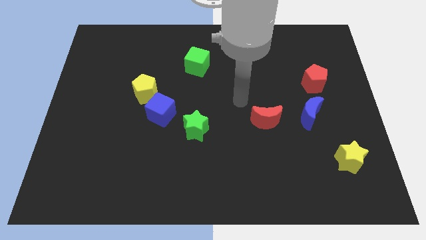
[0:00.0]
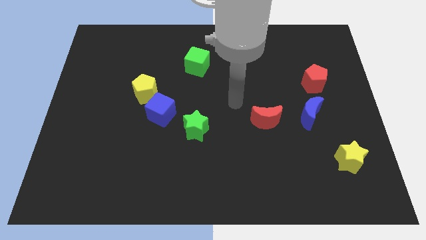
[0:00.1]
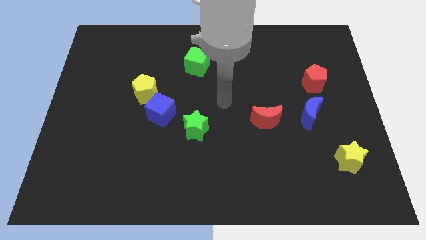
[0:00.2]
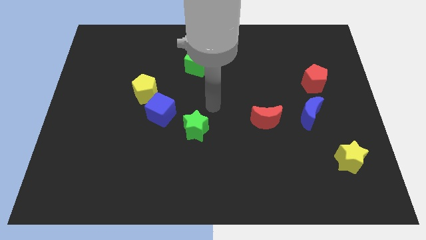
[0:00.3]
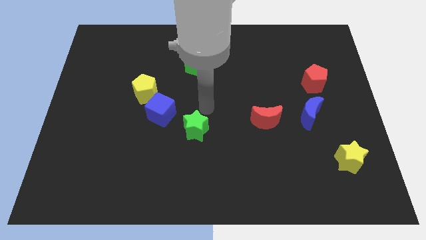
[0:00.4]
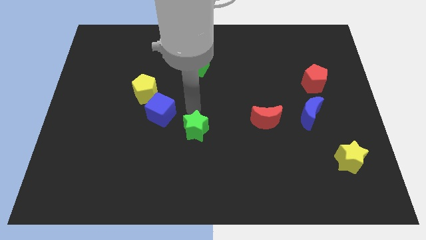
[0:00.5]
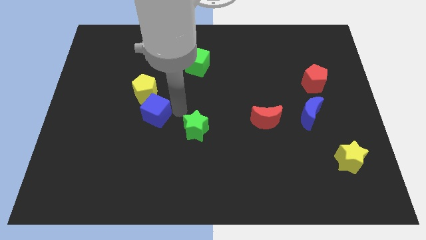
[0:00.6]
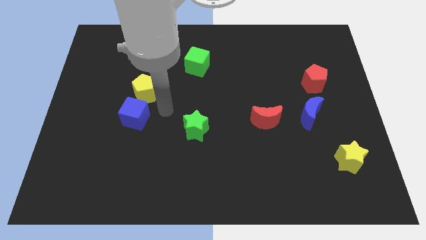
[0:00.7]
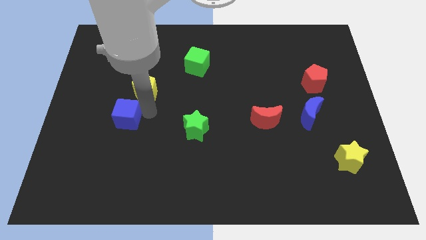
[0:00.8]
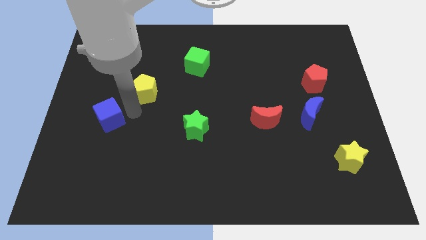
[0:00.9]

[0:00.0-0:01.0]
separate the yellow pentagon from the blue cube

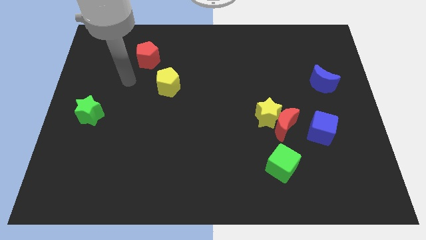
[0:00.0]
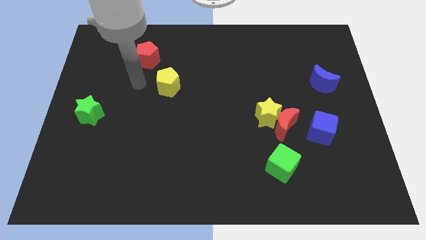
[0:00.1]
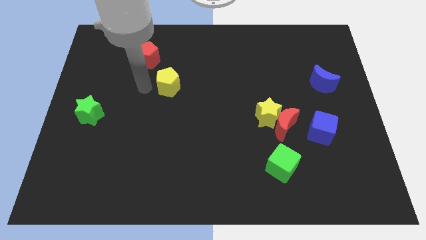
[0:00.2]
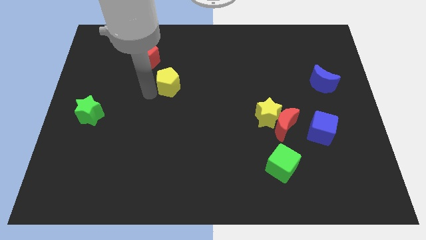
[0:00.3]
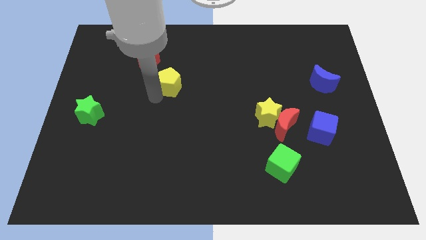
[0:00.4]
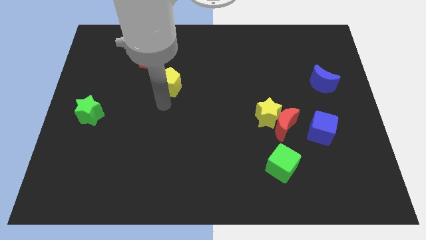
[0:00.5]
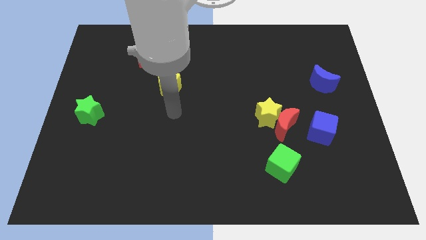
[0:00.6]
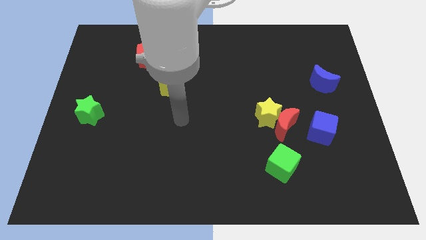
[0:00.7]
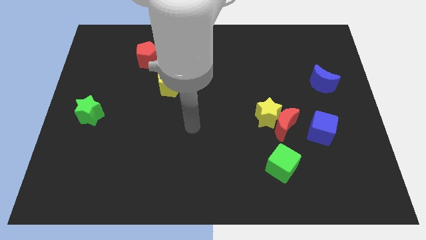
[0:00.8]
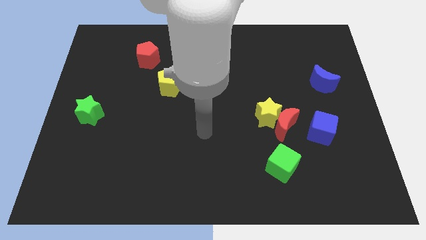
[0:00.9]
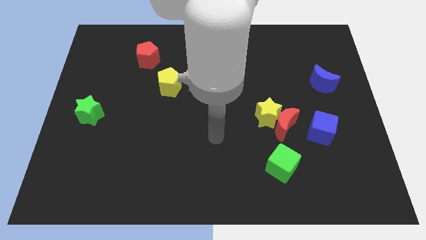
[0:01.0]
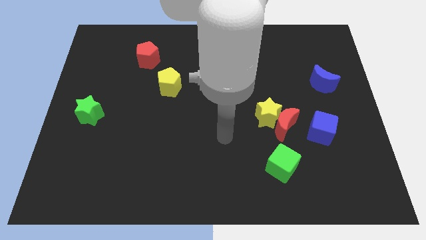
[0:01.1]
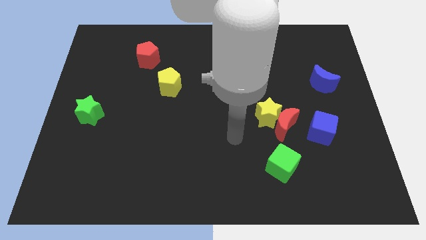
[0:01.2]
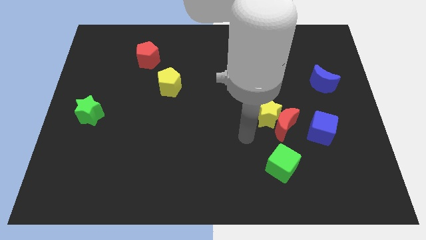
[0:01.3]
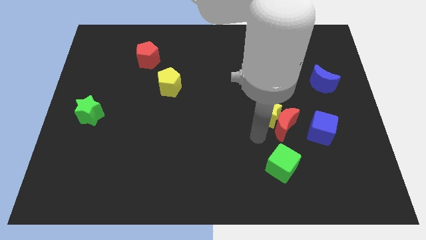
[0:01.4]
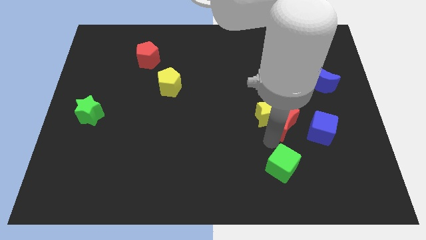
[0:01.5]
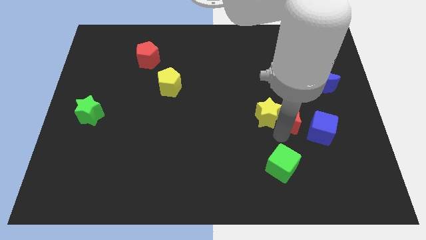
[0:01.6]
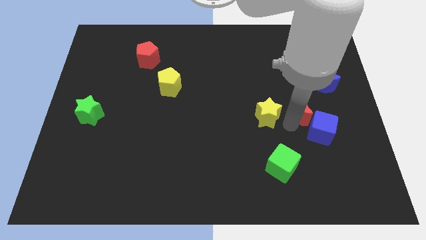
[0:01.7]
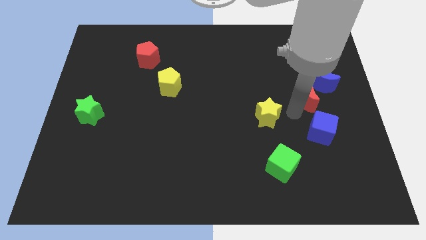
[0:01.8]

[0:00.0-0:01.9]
pull the yellow star apart from the red moon

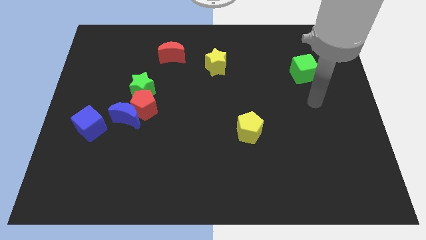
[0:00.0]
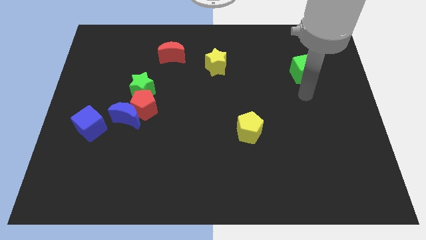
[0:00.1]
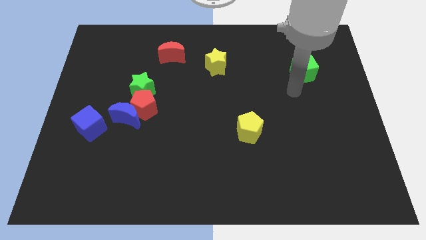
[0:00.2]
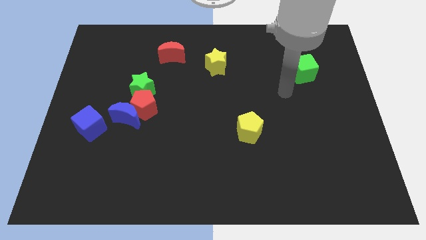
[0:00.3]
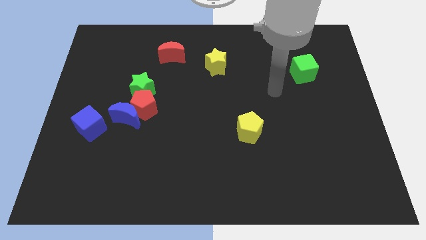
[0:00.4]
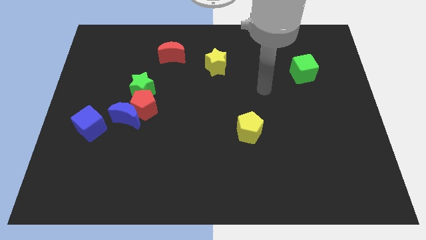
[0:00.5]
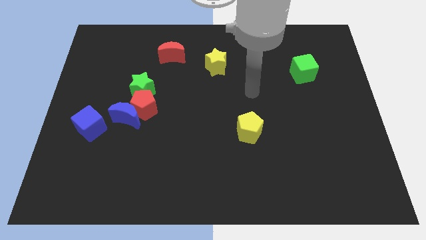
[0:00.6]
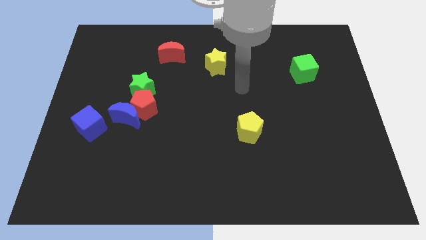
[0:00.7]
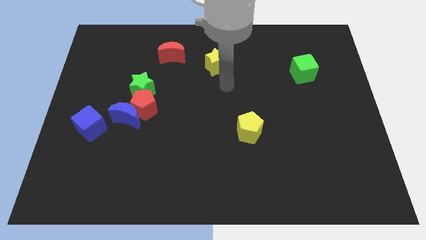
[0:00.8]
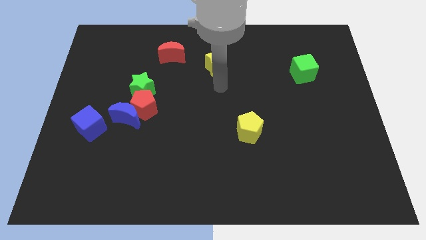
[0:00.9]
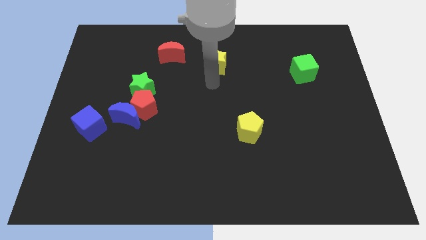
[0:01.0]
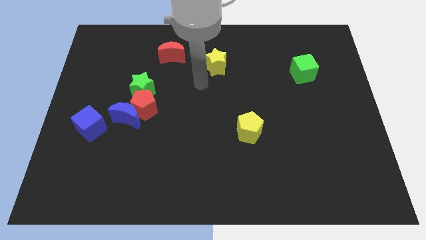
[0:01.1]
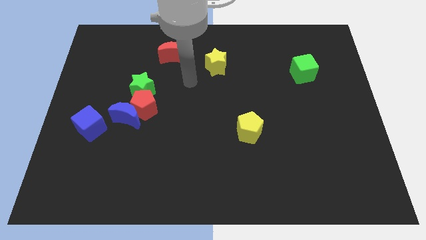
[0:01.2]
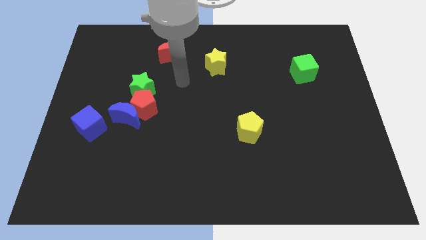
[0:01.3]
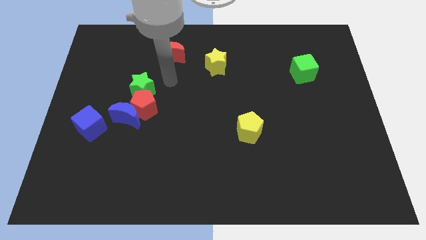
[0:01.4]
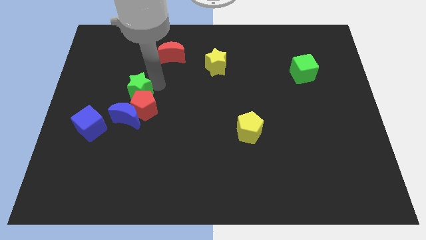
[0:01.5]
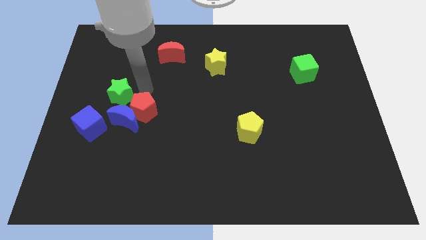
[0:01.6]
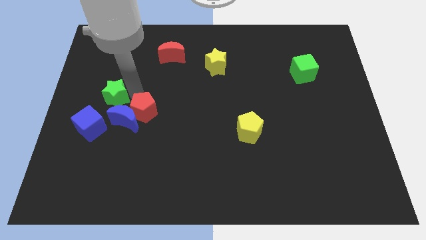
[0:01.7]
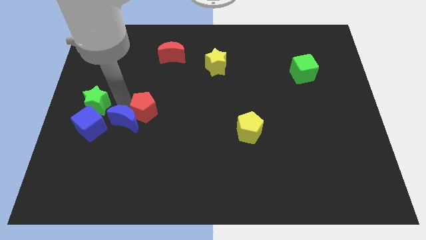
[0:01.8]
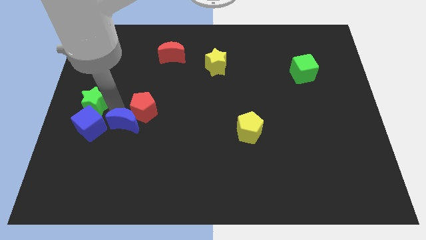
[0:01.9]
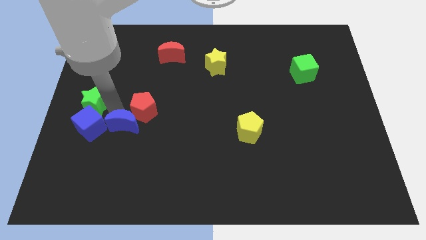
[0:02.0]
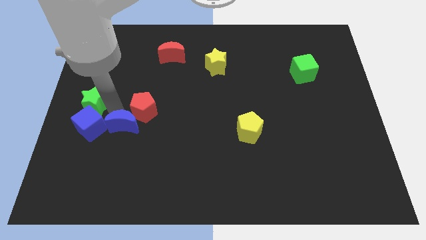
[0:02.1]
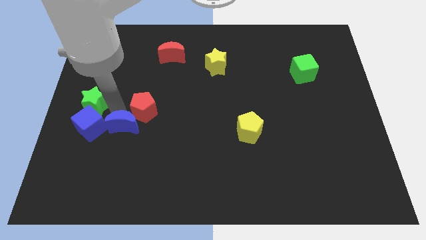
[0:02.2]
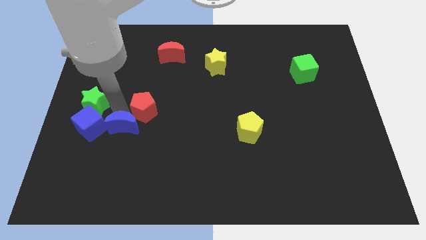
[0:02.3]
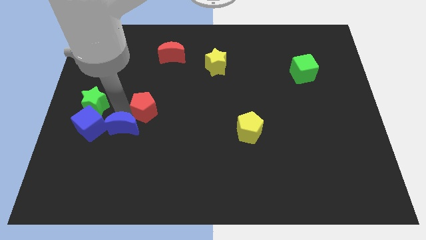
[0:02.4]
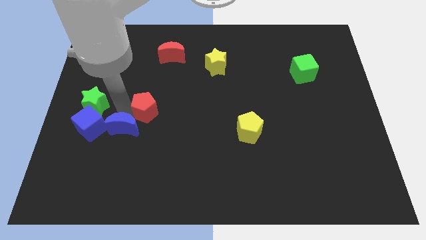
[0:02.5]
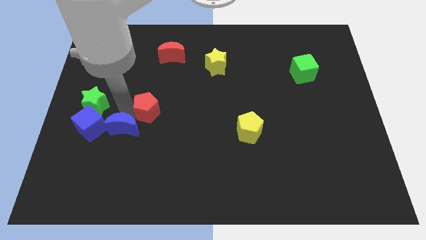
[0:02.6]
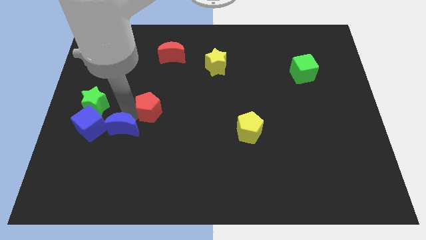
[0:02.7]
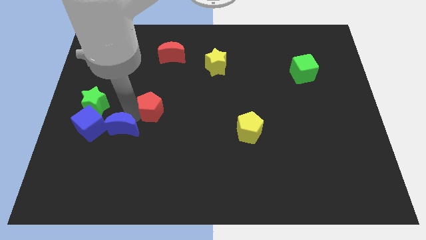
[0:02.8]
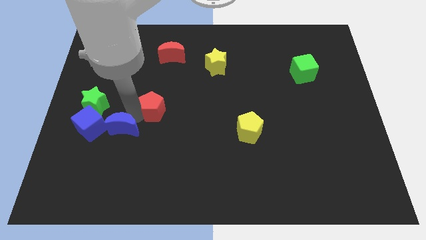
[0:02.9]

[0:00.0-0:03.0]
separate the red pentagon from the blue moon and green star

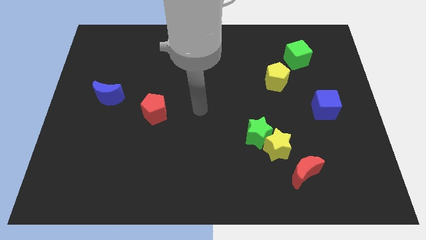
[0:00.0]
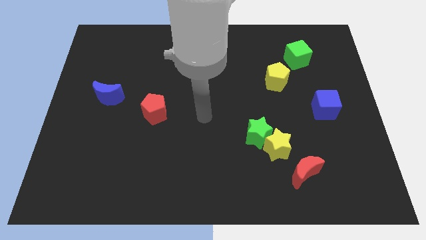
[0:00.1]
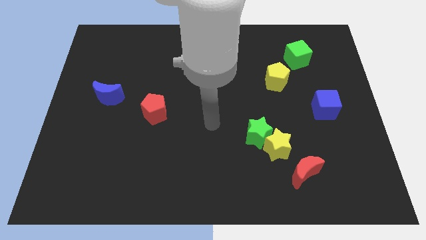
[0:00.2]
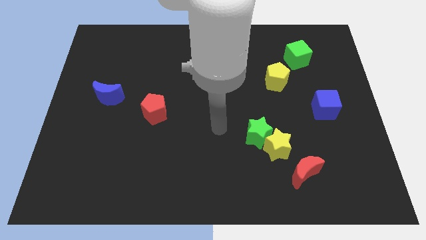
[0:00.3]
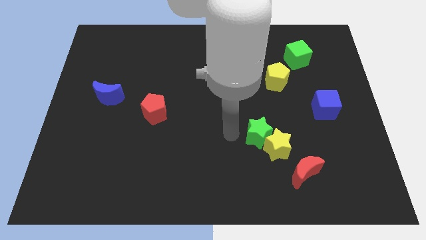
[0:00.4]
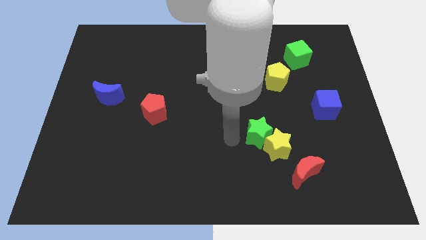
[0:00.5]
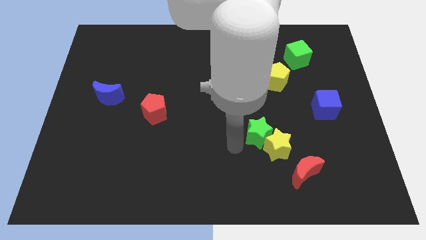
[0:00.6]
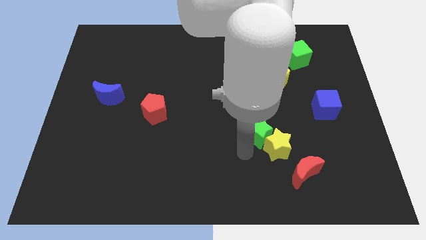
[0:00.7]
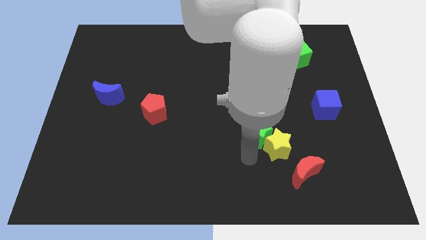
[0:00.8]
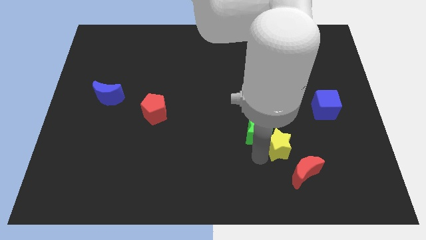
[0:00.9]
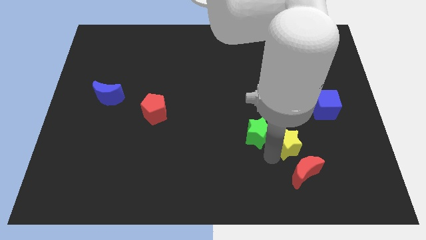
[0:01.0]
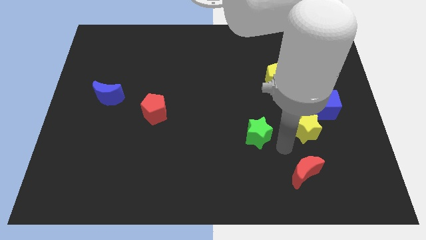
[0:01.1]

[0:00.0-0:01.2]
move the green star away from the yellow star

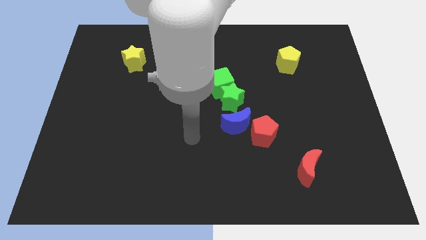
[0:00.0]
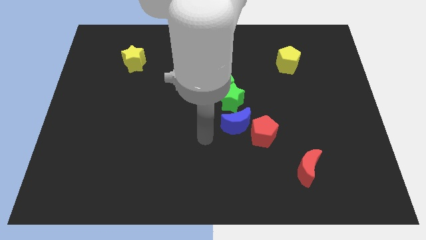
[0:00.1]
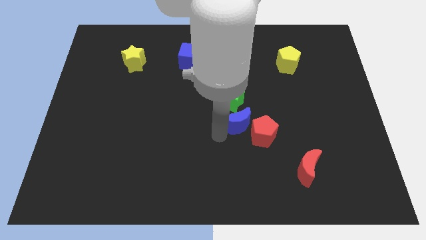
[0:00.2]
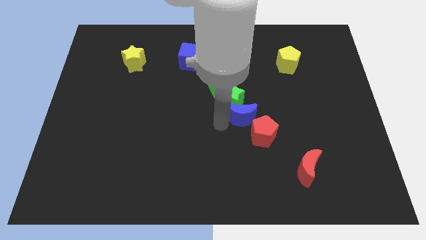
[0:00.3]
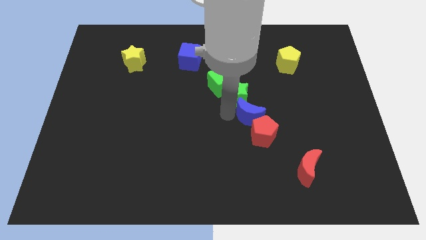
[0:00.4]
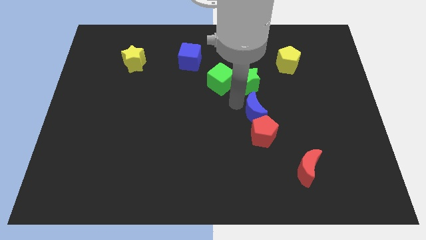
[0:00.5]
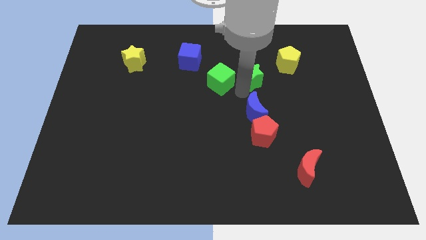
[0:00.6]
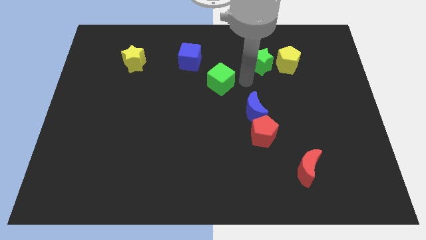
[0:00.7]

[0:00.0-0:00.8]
move the green cube away from the green star

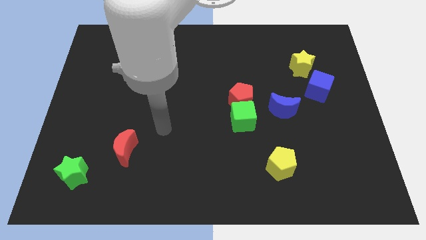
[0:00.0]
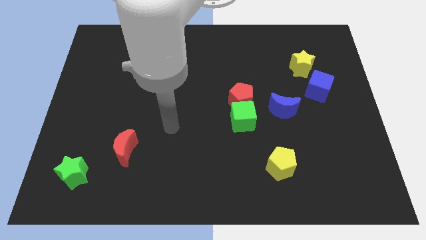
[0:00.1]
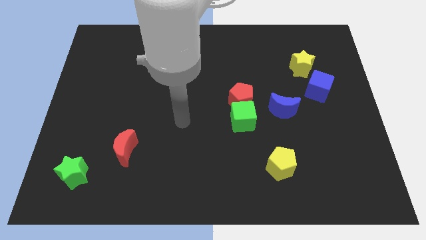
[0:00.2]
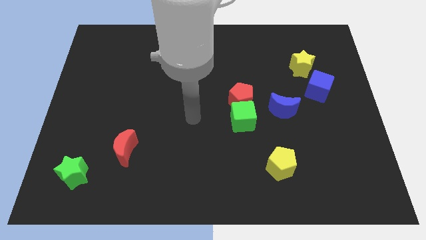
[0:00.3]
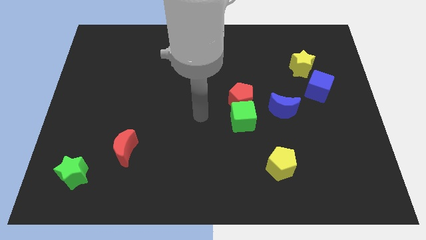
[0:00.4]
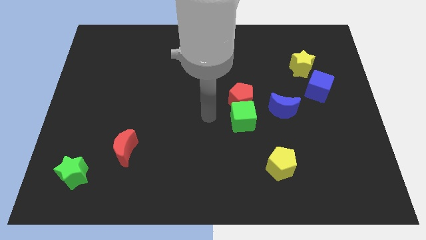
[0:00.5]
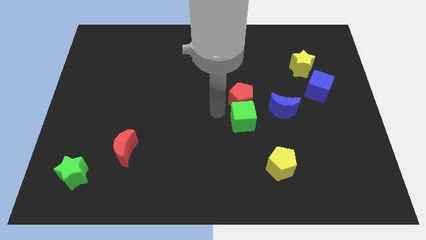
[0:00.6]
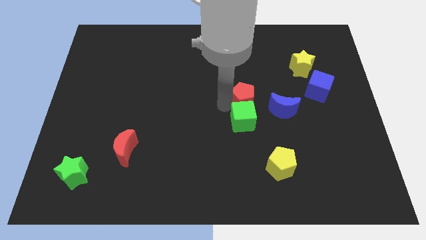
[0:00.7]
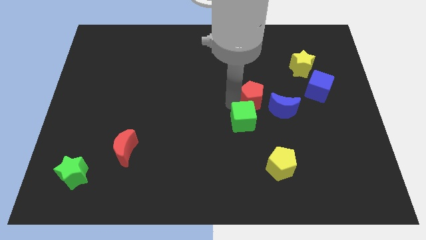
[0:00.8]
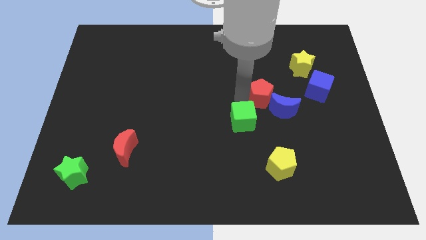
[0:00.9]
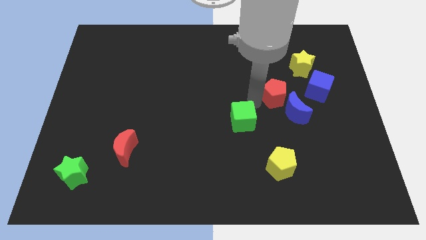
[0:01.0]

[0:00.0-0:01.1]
separate the green cube from the red pentagon and blue moon

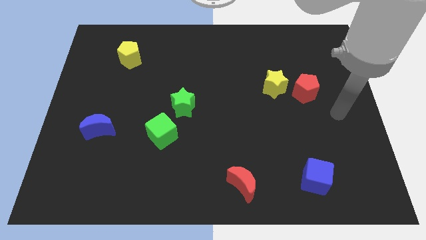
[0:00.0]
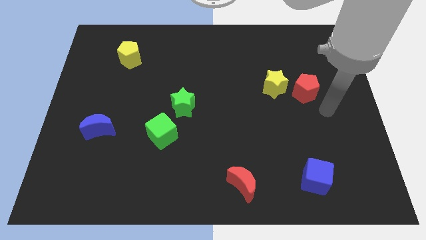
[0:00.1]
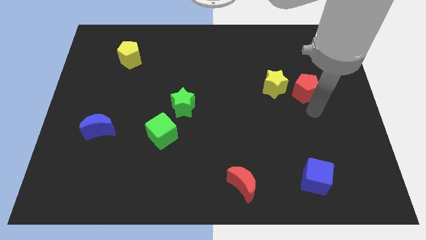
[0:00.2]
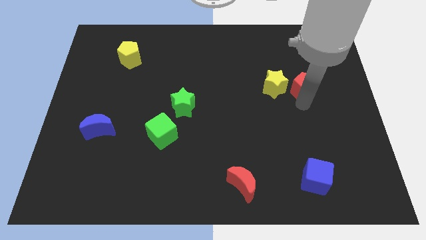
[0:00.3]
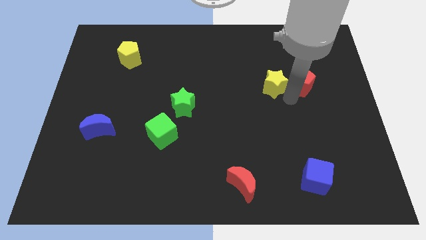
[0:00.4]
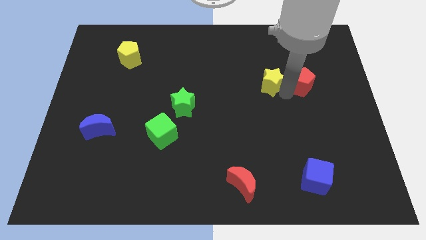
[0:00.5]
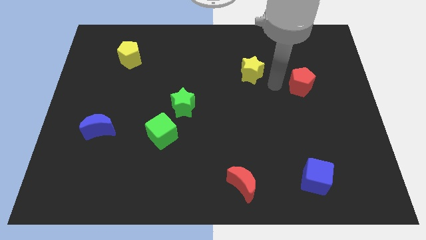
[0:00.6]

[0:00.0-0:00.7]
pull the red pentagon apart from the yellow star
